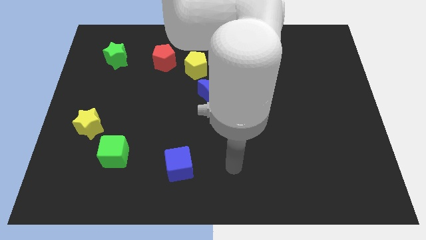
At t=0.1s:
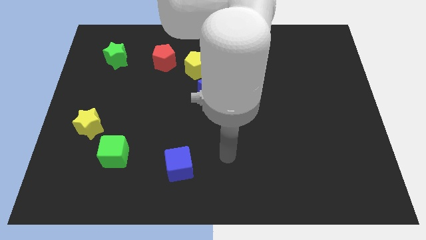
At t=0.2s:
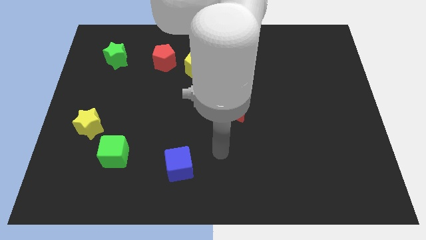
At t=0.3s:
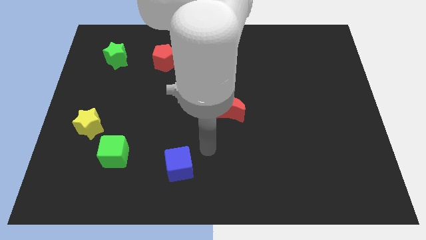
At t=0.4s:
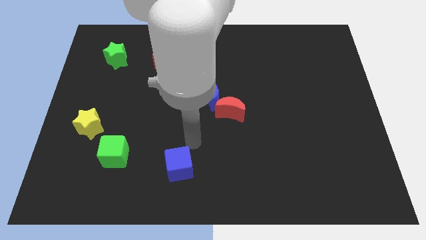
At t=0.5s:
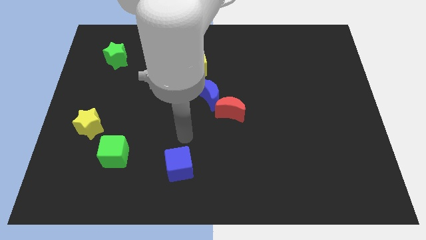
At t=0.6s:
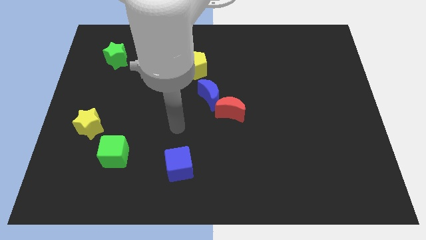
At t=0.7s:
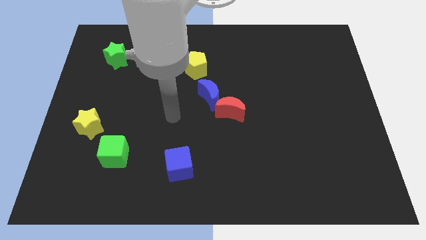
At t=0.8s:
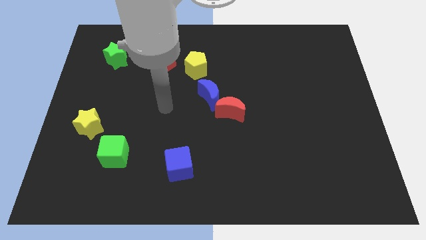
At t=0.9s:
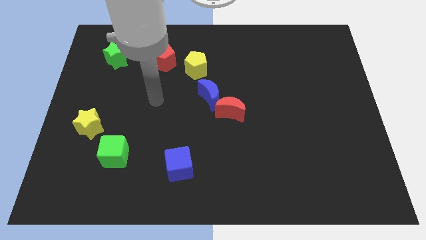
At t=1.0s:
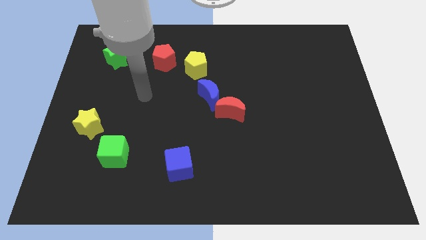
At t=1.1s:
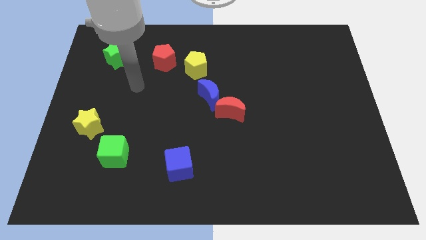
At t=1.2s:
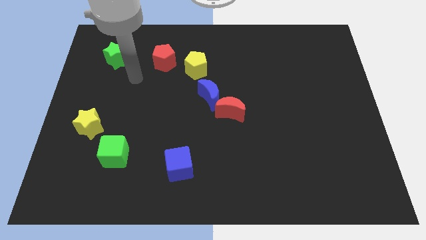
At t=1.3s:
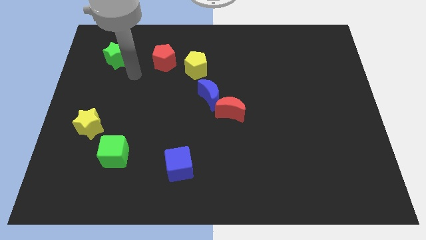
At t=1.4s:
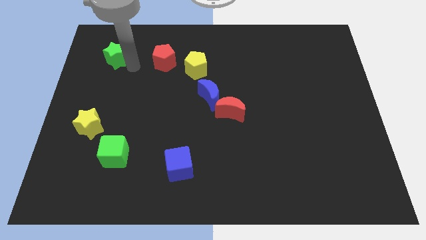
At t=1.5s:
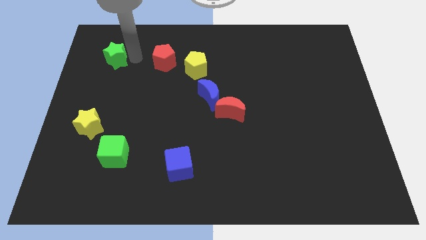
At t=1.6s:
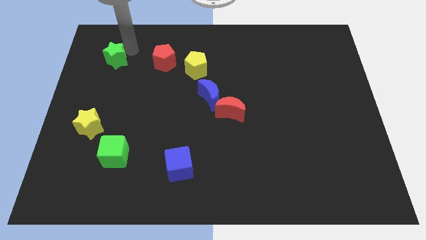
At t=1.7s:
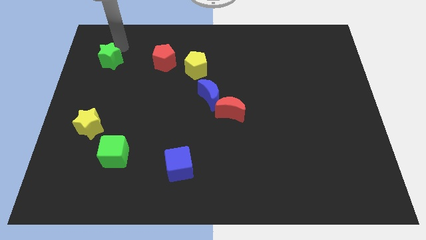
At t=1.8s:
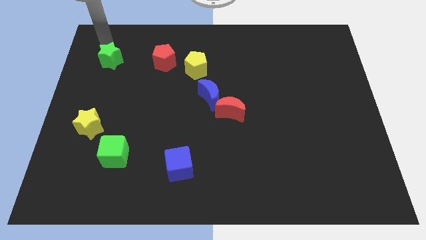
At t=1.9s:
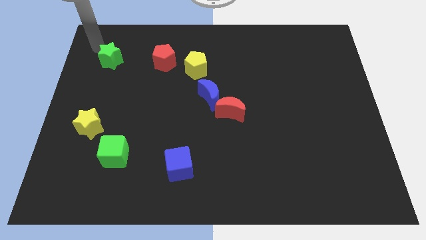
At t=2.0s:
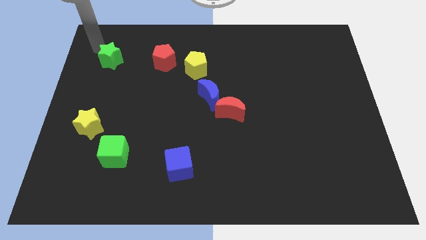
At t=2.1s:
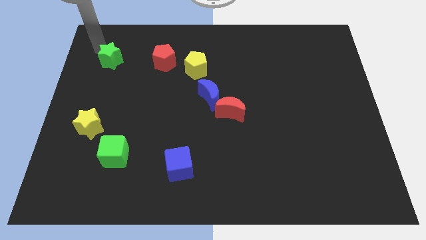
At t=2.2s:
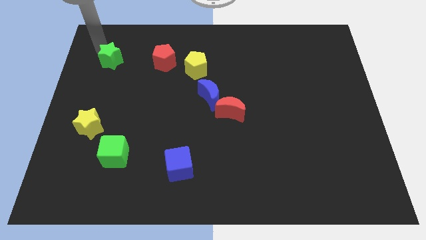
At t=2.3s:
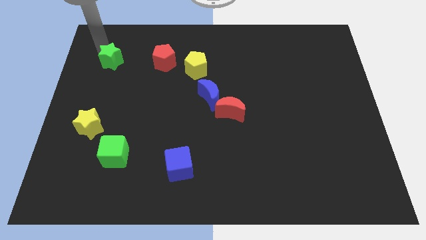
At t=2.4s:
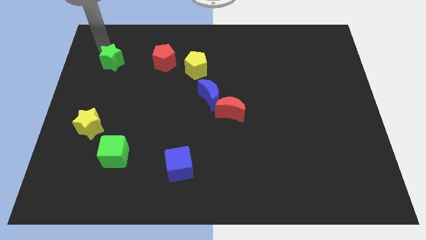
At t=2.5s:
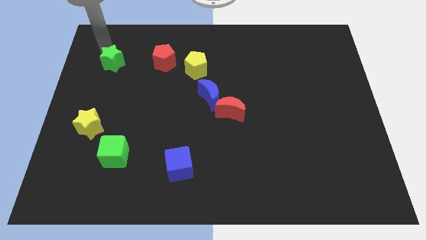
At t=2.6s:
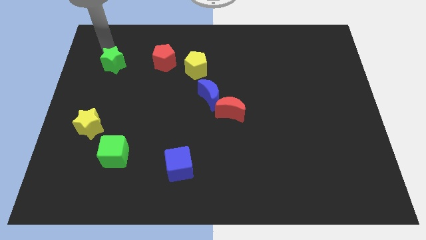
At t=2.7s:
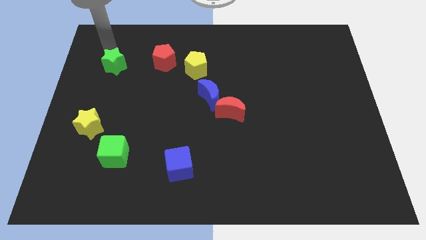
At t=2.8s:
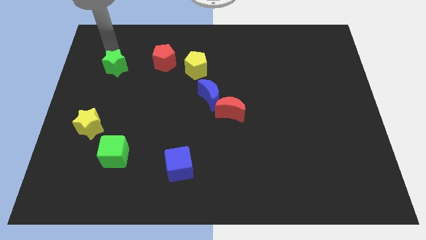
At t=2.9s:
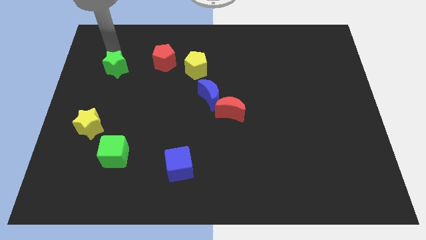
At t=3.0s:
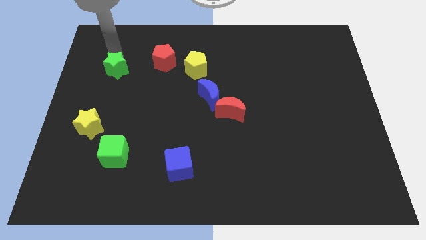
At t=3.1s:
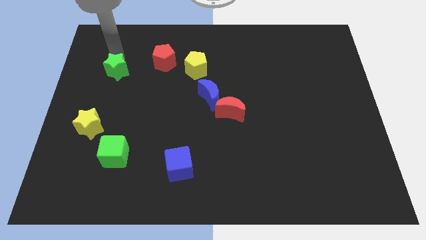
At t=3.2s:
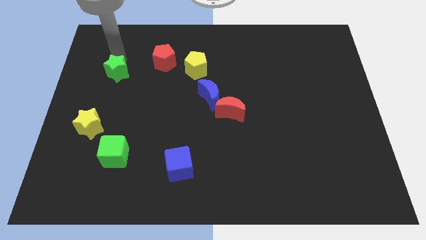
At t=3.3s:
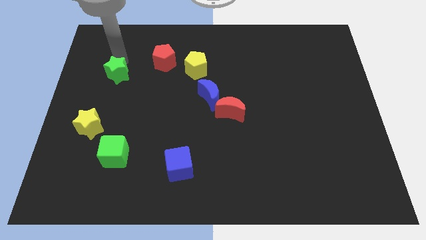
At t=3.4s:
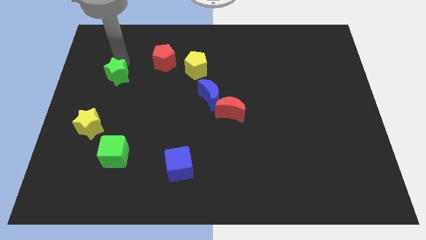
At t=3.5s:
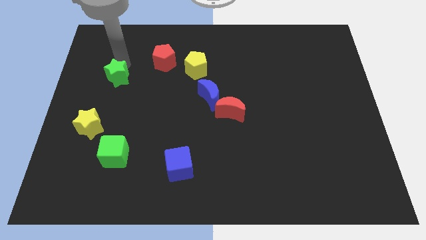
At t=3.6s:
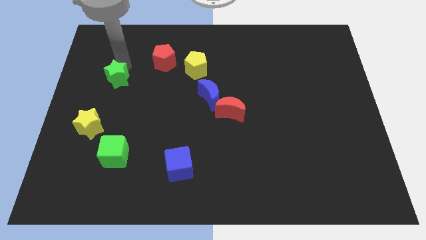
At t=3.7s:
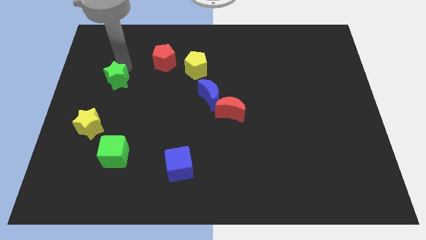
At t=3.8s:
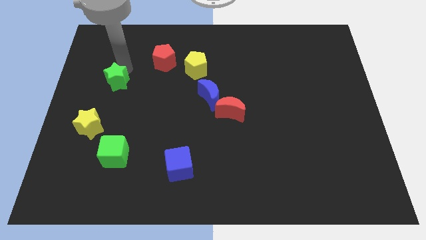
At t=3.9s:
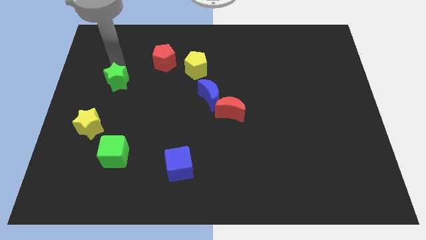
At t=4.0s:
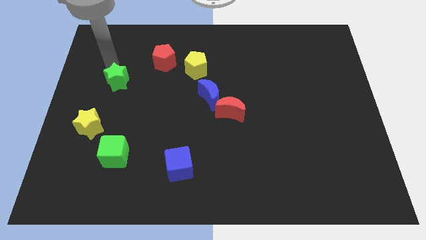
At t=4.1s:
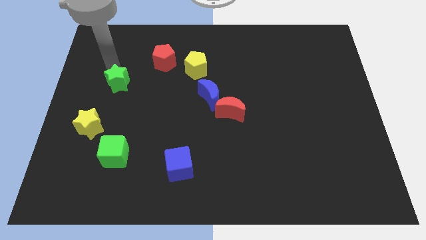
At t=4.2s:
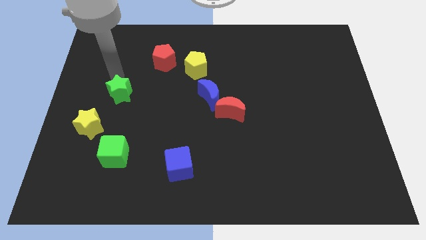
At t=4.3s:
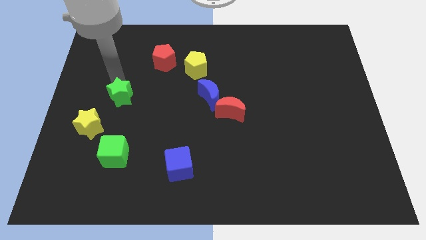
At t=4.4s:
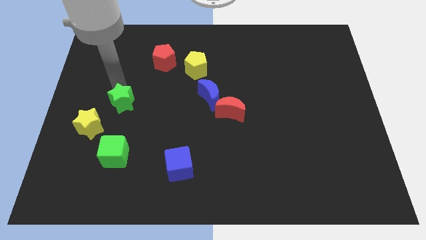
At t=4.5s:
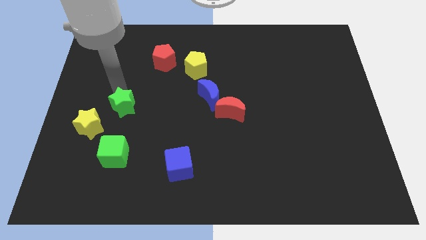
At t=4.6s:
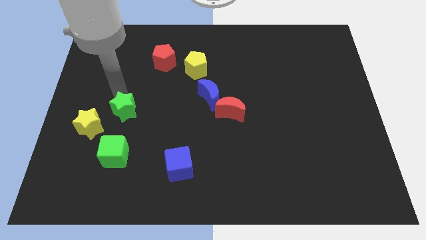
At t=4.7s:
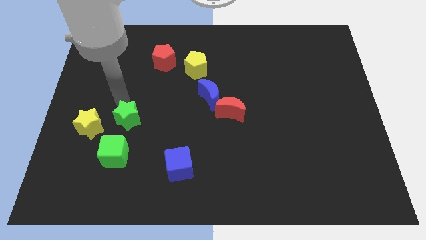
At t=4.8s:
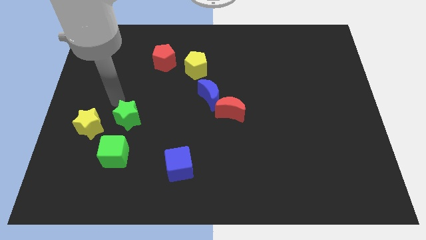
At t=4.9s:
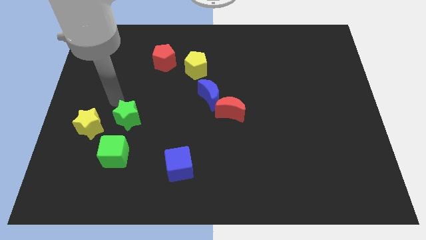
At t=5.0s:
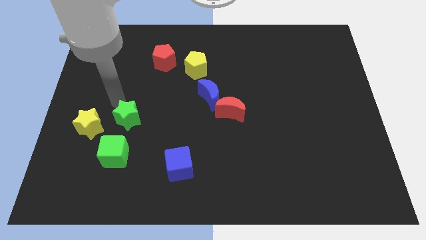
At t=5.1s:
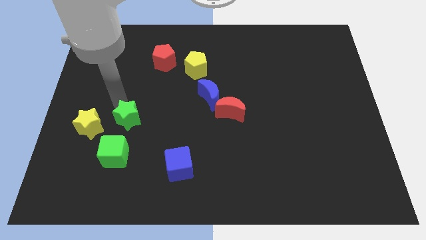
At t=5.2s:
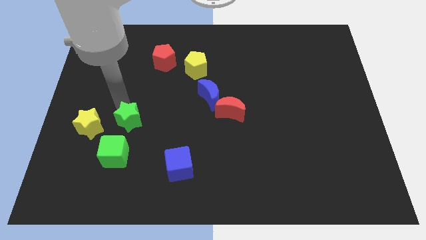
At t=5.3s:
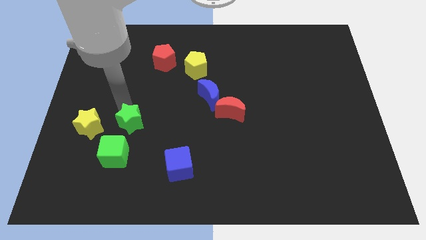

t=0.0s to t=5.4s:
put the green star diagonally up and to the right of the green cube

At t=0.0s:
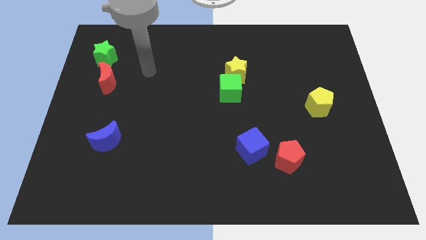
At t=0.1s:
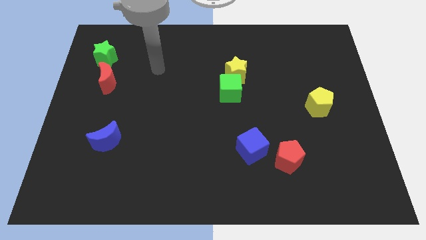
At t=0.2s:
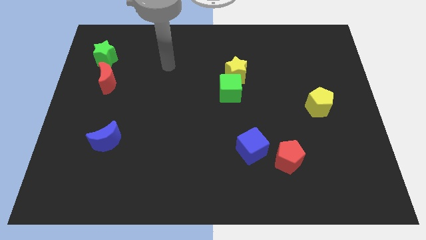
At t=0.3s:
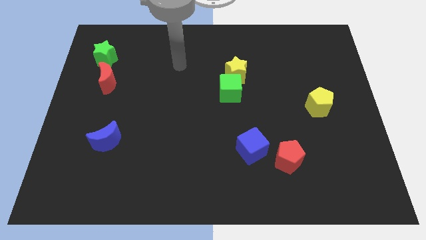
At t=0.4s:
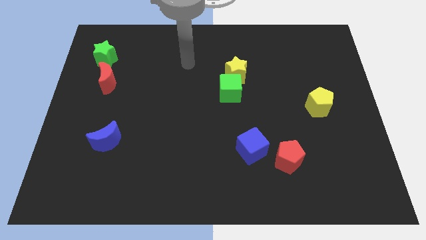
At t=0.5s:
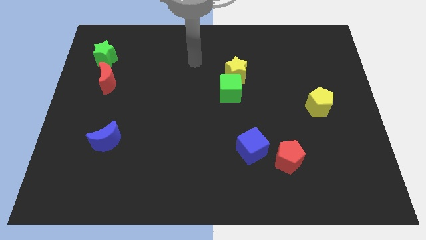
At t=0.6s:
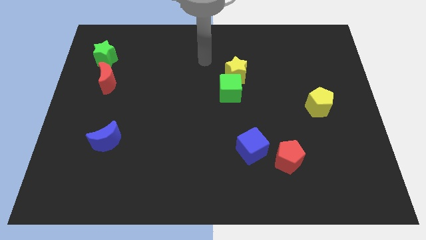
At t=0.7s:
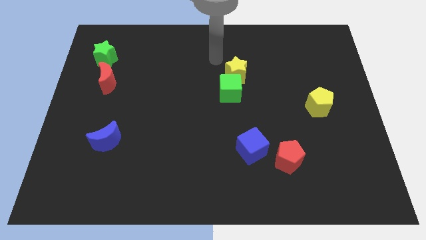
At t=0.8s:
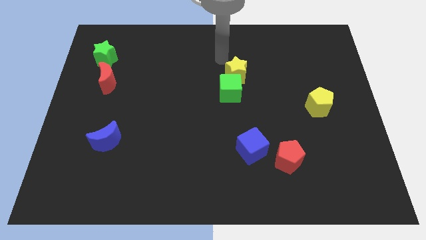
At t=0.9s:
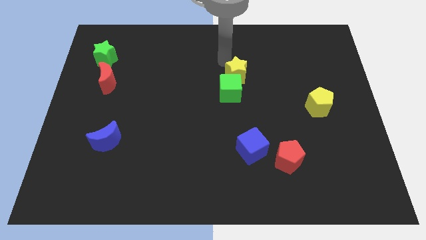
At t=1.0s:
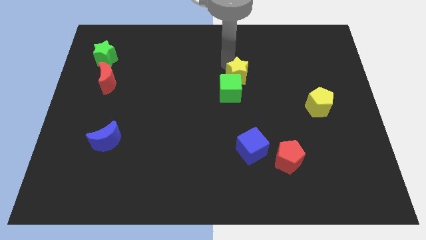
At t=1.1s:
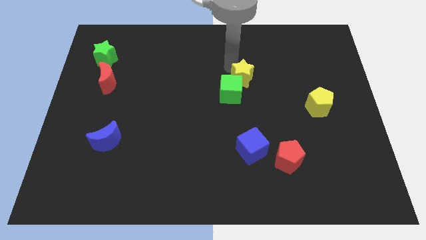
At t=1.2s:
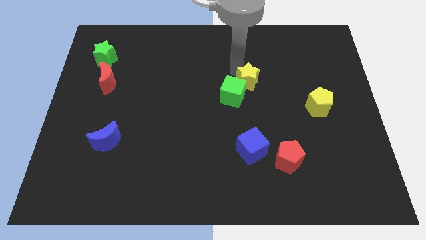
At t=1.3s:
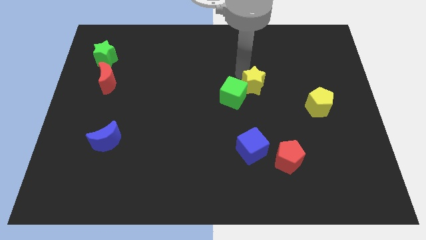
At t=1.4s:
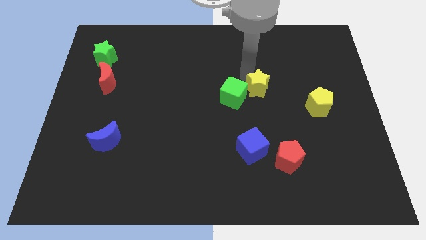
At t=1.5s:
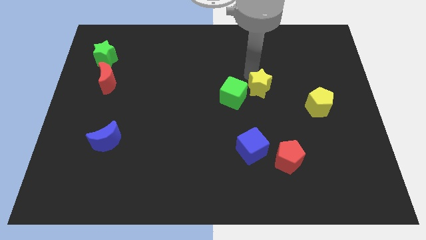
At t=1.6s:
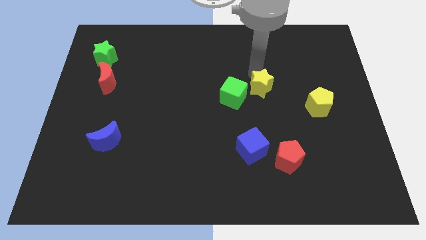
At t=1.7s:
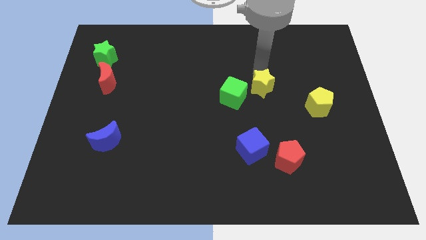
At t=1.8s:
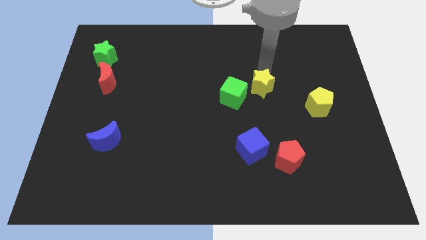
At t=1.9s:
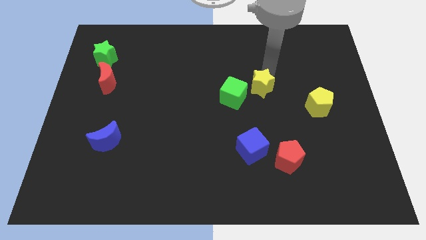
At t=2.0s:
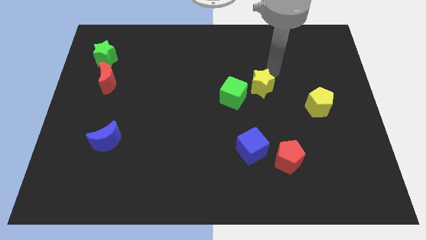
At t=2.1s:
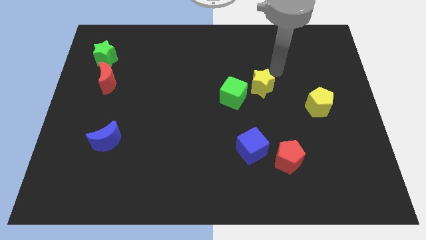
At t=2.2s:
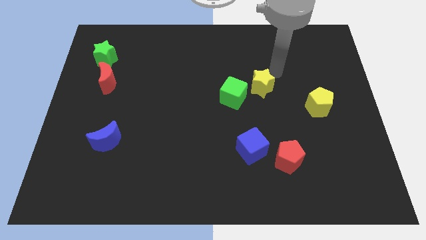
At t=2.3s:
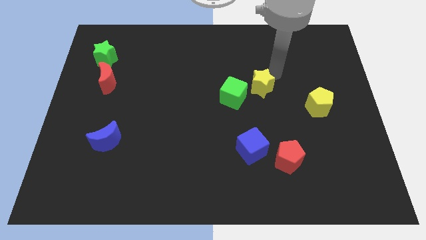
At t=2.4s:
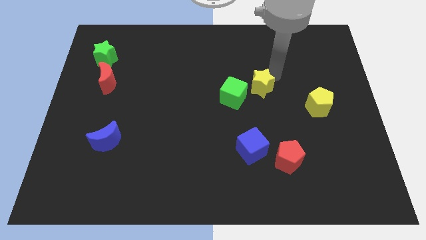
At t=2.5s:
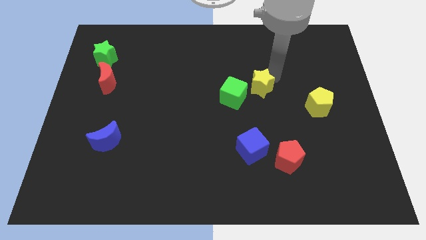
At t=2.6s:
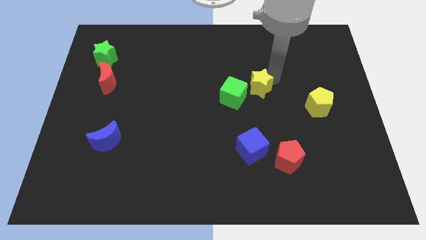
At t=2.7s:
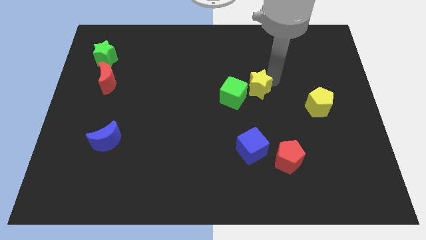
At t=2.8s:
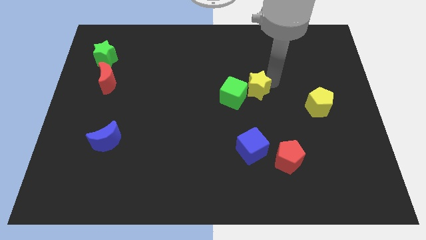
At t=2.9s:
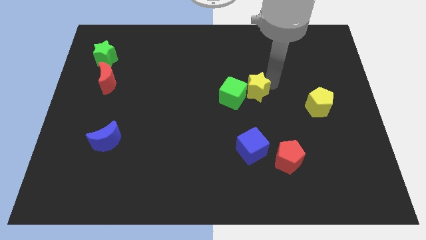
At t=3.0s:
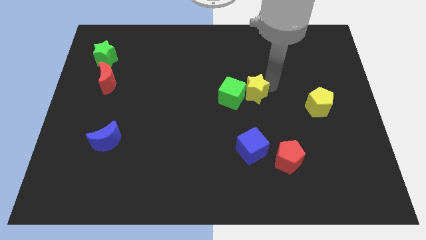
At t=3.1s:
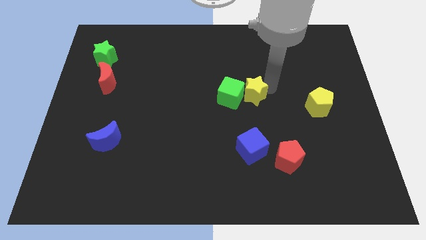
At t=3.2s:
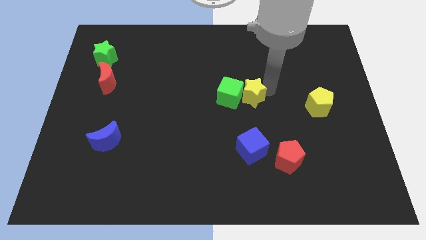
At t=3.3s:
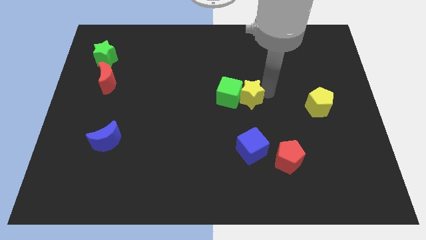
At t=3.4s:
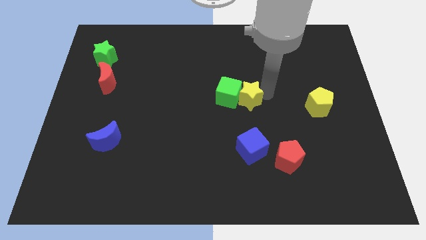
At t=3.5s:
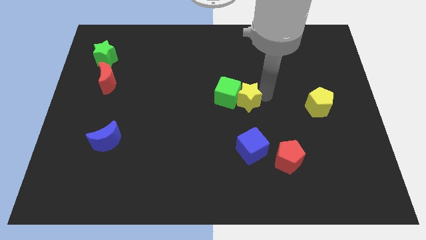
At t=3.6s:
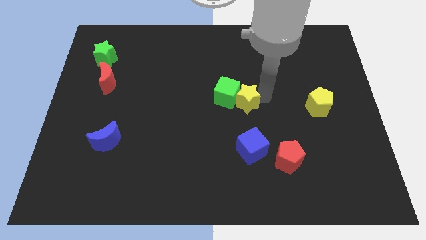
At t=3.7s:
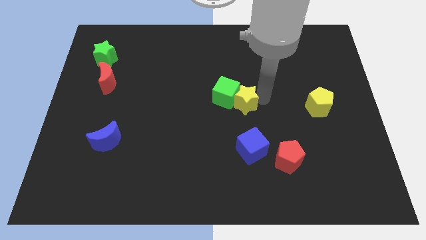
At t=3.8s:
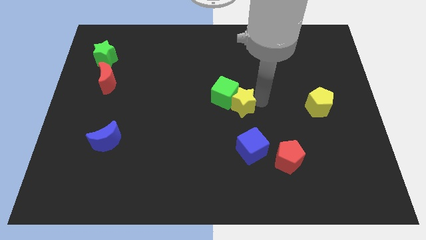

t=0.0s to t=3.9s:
push the yellow star below the green cube
